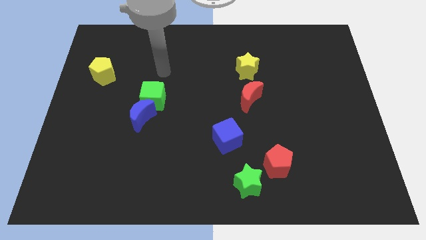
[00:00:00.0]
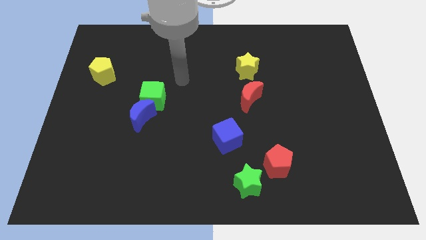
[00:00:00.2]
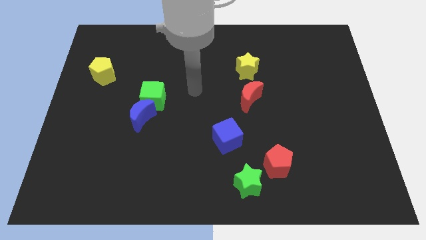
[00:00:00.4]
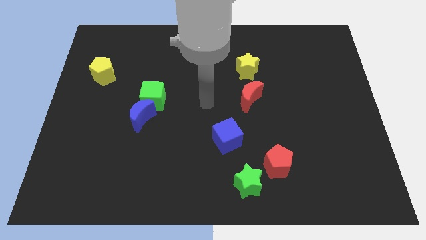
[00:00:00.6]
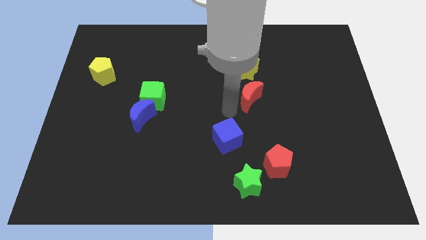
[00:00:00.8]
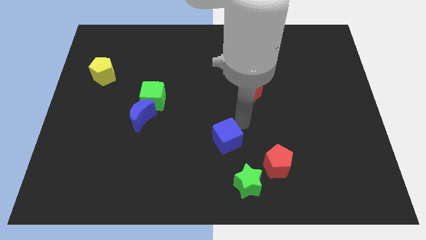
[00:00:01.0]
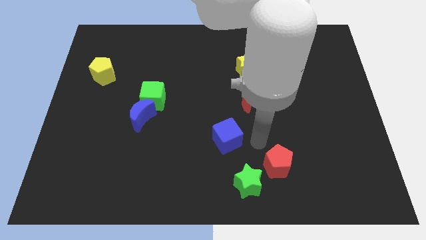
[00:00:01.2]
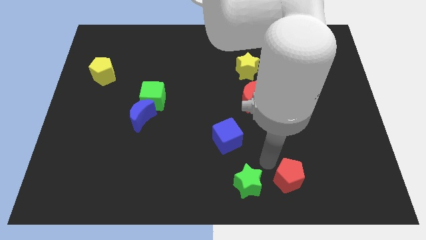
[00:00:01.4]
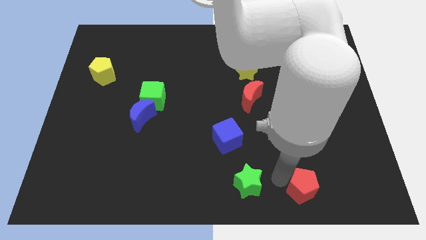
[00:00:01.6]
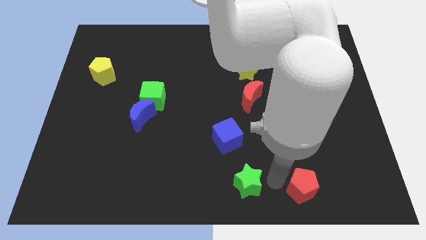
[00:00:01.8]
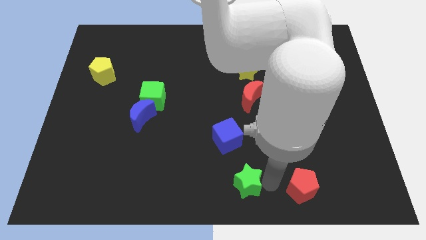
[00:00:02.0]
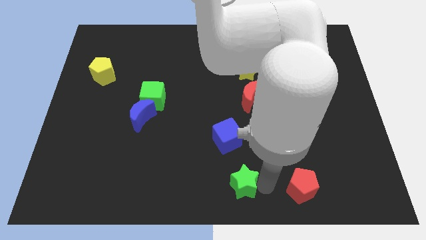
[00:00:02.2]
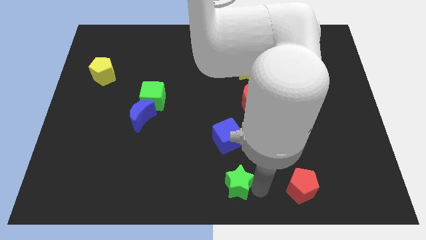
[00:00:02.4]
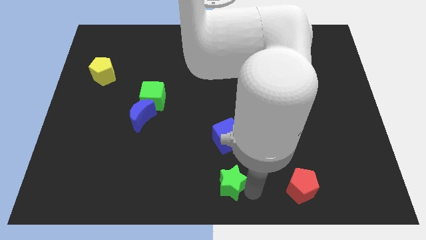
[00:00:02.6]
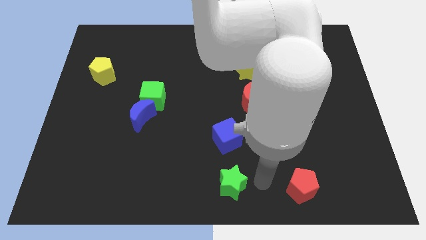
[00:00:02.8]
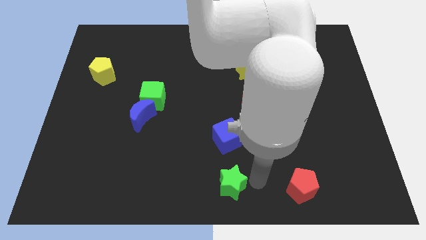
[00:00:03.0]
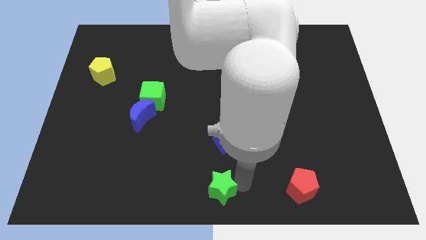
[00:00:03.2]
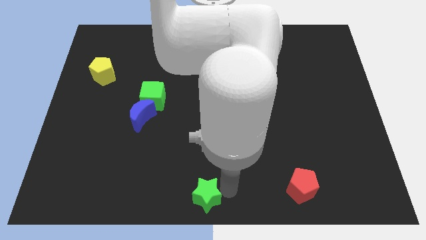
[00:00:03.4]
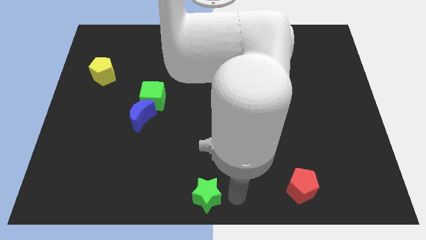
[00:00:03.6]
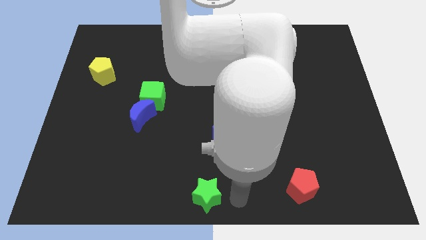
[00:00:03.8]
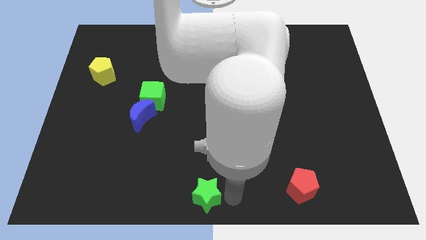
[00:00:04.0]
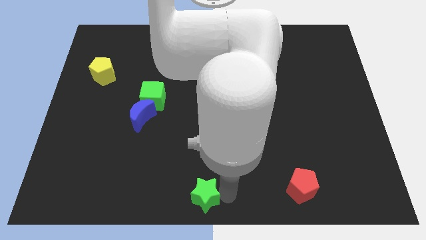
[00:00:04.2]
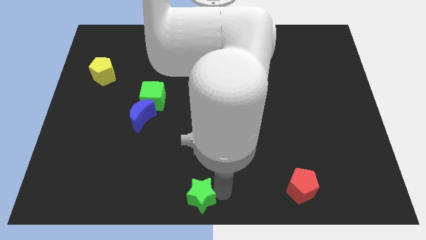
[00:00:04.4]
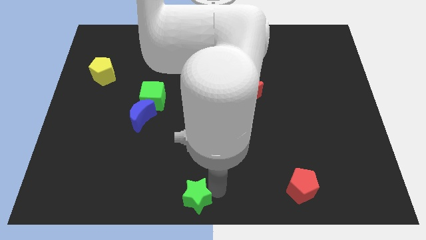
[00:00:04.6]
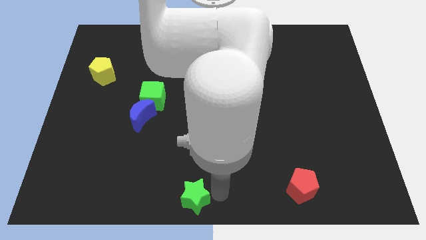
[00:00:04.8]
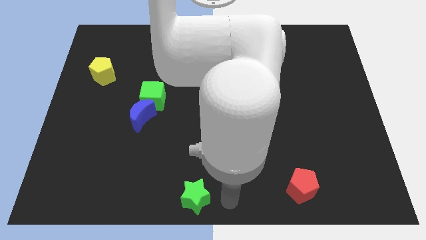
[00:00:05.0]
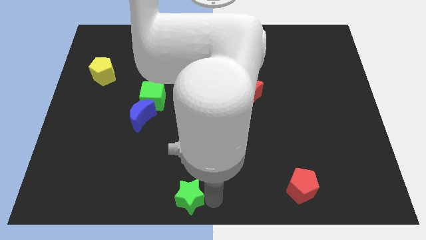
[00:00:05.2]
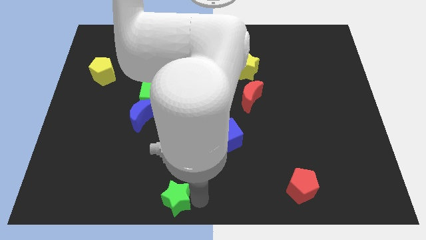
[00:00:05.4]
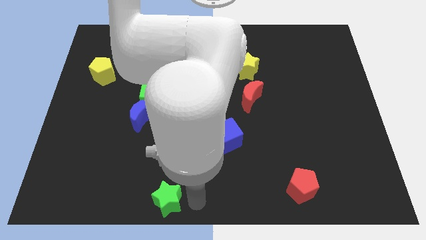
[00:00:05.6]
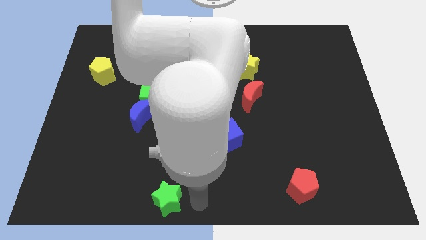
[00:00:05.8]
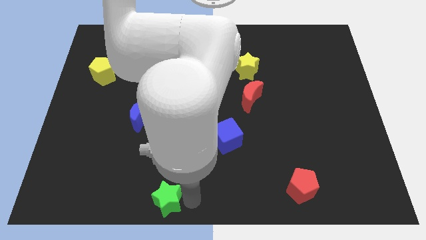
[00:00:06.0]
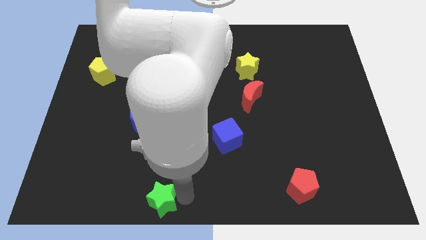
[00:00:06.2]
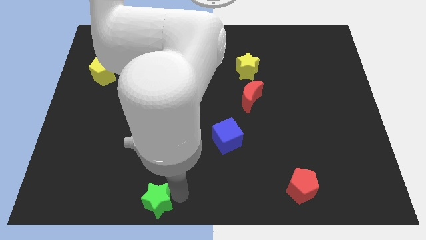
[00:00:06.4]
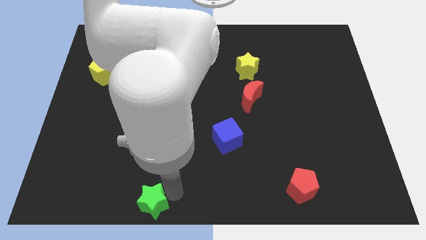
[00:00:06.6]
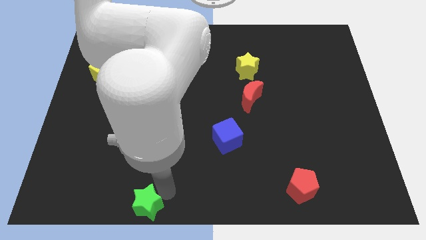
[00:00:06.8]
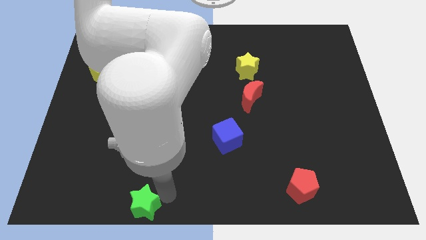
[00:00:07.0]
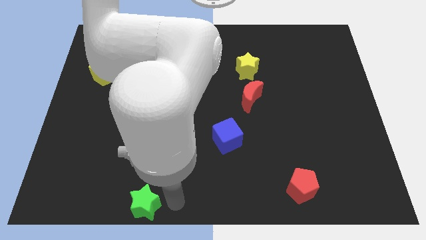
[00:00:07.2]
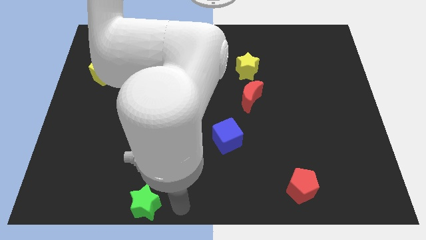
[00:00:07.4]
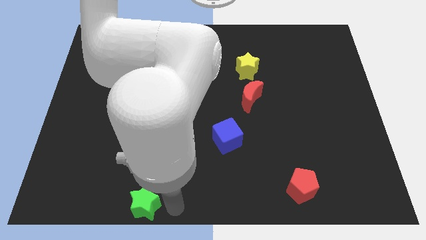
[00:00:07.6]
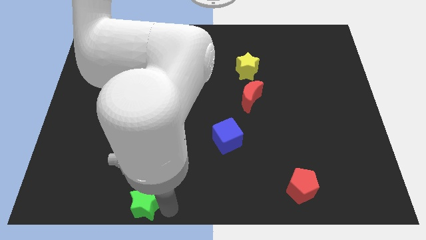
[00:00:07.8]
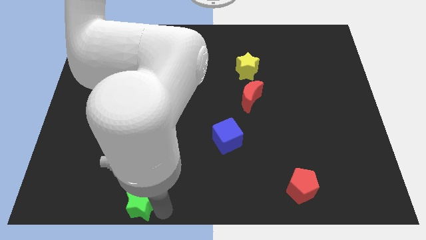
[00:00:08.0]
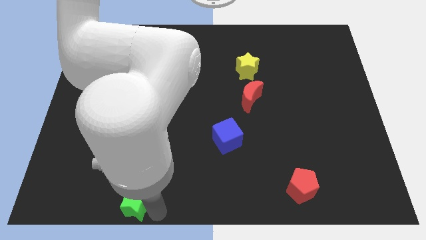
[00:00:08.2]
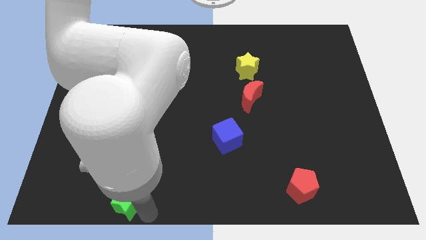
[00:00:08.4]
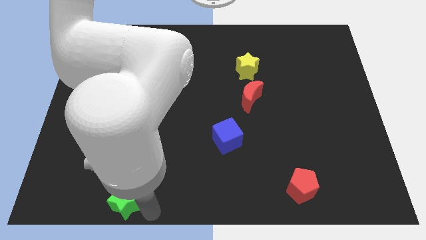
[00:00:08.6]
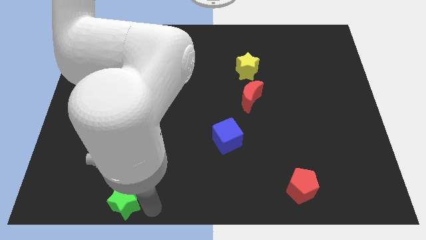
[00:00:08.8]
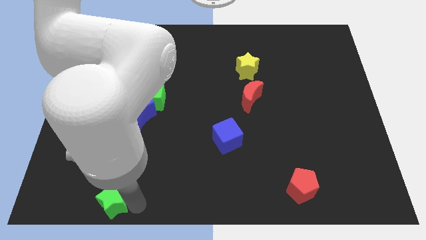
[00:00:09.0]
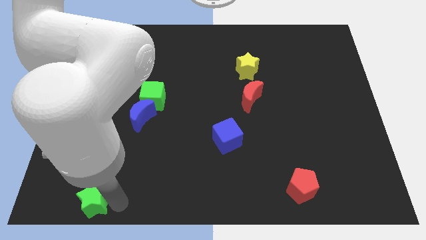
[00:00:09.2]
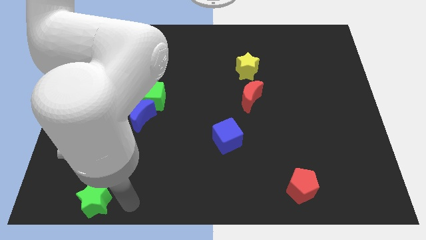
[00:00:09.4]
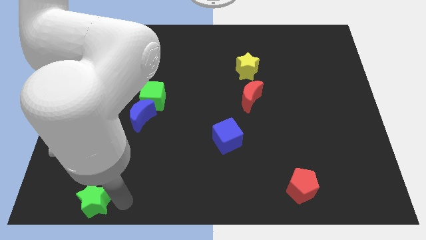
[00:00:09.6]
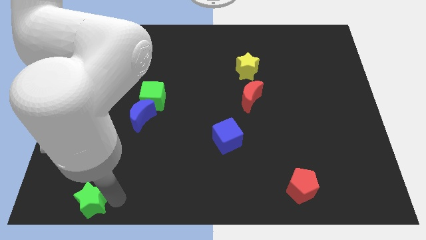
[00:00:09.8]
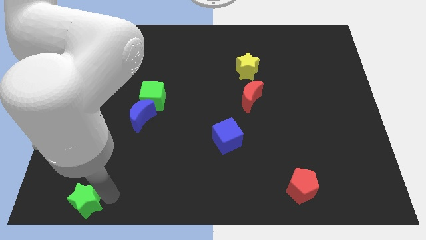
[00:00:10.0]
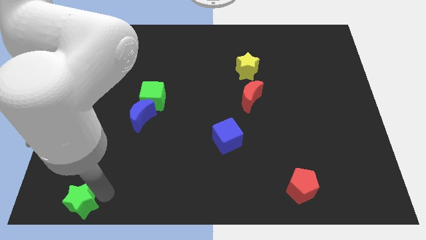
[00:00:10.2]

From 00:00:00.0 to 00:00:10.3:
slide the green star to the lower left corner
